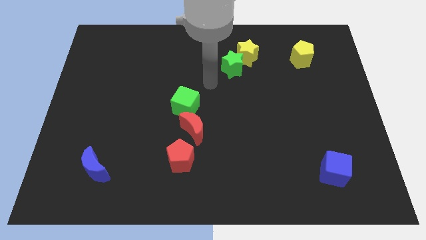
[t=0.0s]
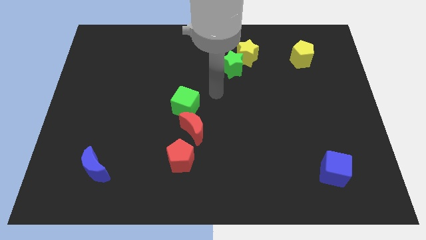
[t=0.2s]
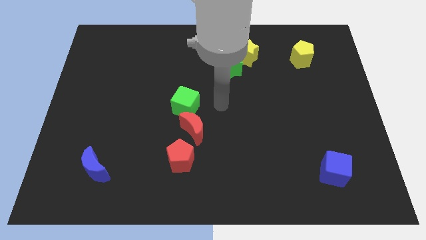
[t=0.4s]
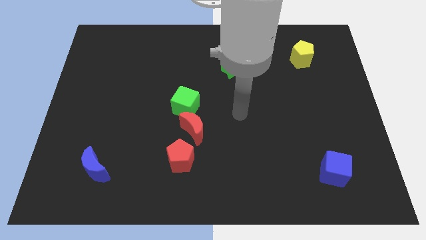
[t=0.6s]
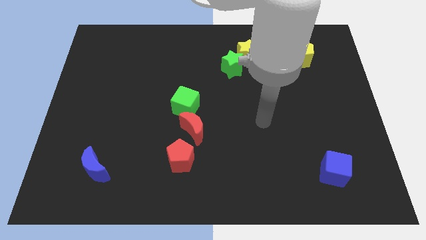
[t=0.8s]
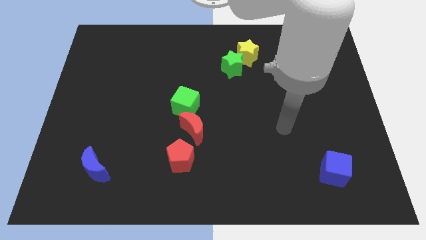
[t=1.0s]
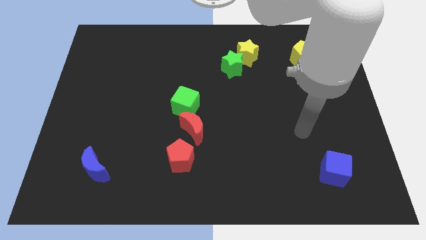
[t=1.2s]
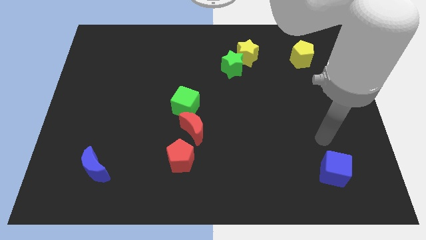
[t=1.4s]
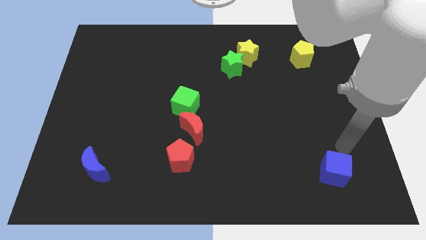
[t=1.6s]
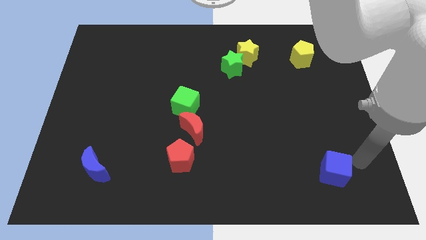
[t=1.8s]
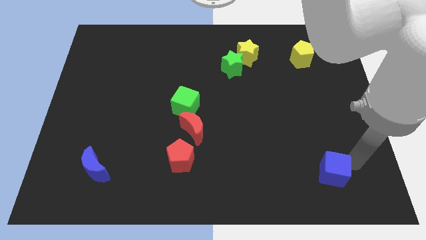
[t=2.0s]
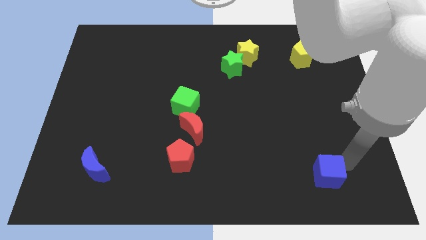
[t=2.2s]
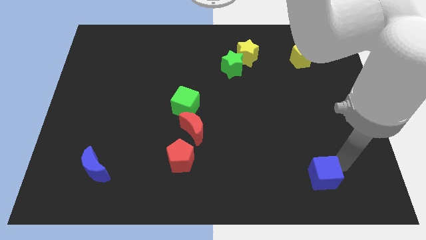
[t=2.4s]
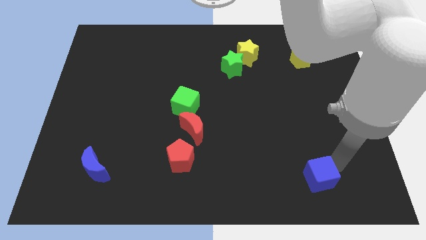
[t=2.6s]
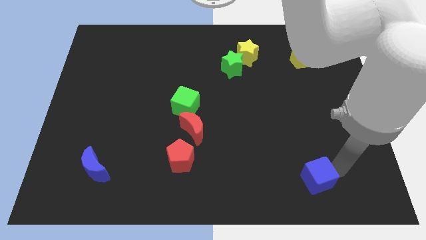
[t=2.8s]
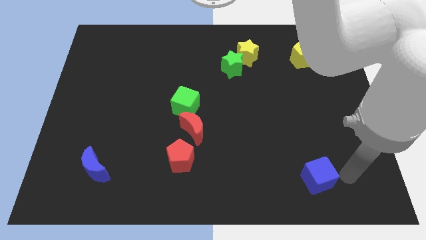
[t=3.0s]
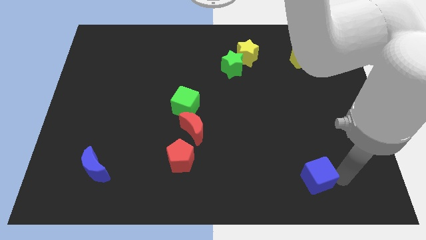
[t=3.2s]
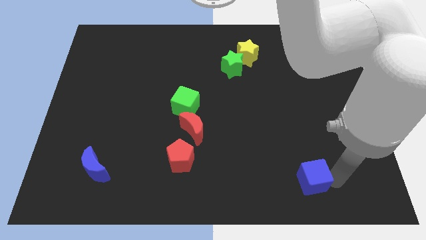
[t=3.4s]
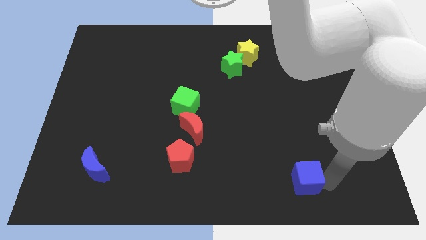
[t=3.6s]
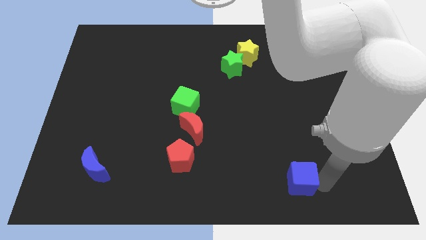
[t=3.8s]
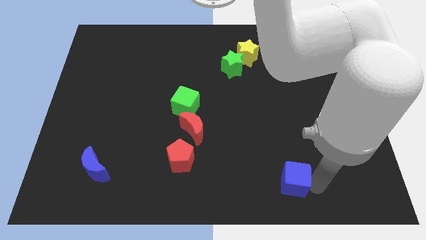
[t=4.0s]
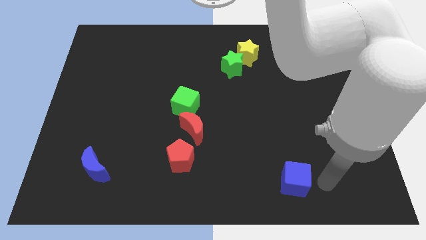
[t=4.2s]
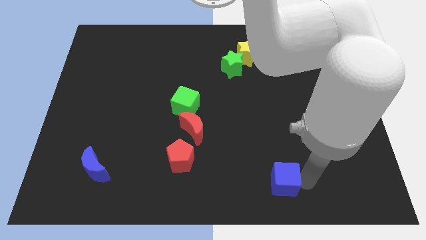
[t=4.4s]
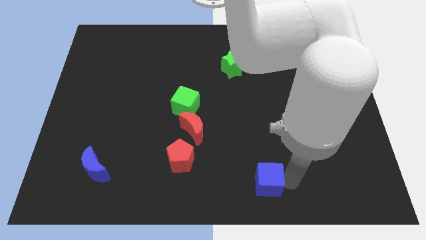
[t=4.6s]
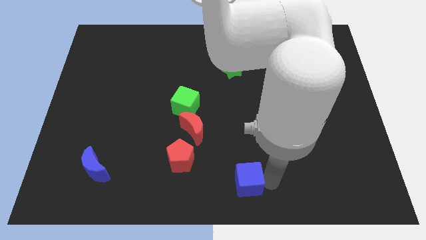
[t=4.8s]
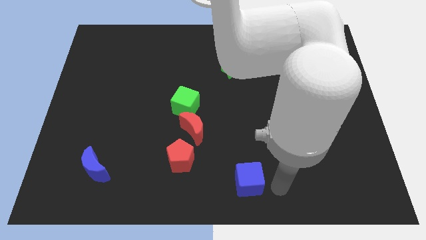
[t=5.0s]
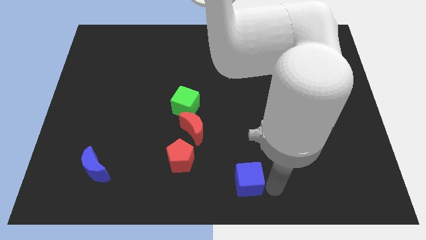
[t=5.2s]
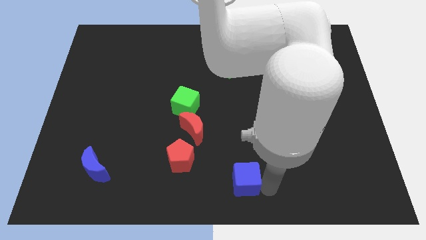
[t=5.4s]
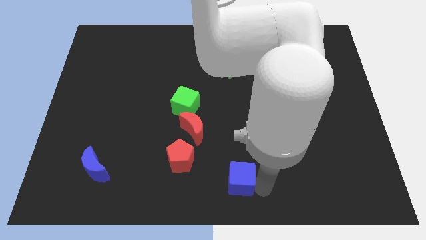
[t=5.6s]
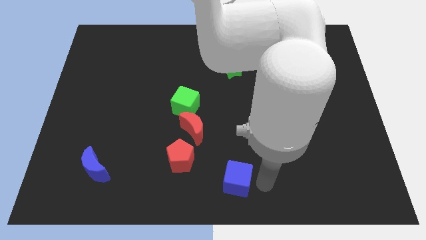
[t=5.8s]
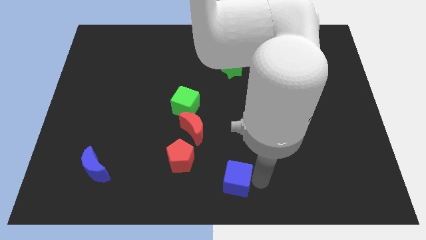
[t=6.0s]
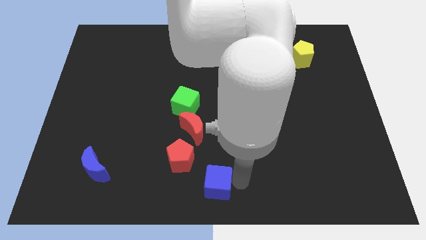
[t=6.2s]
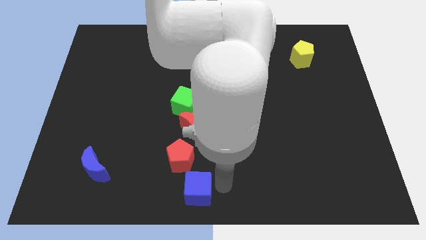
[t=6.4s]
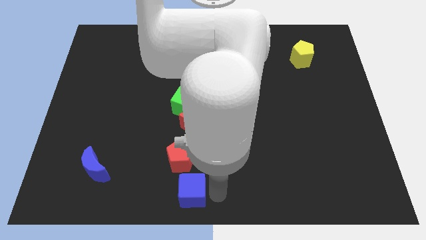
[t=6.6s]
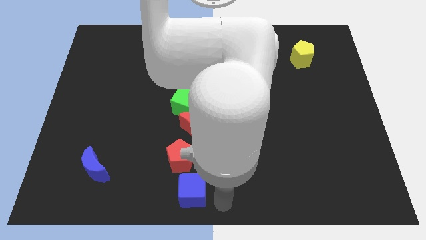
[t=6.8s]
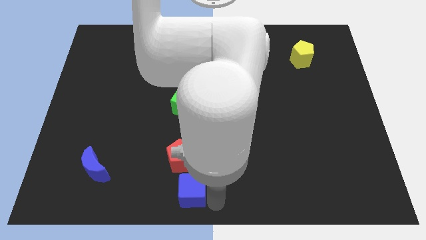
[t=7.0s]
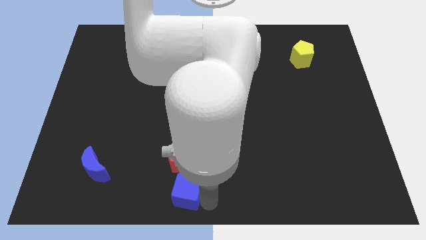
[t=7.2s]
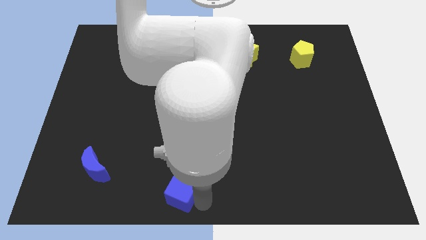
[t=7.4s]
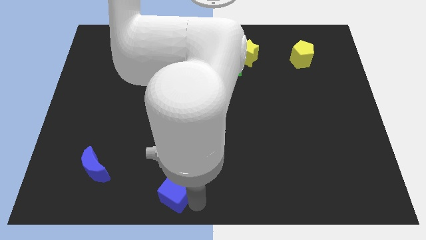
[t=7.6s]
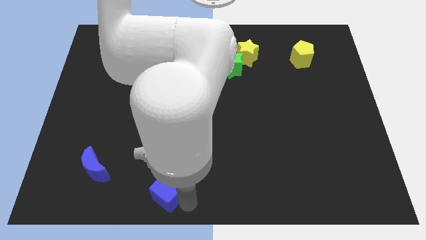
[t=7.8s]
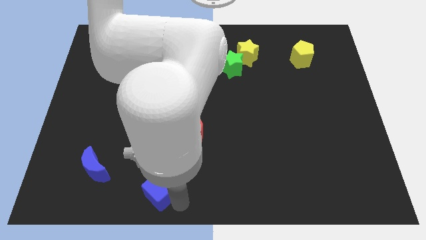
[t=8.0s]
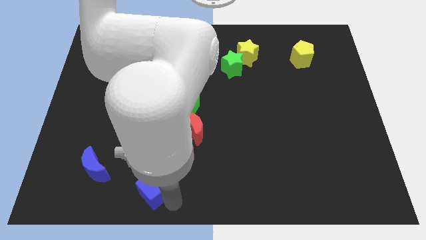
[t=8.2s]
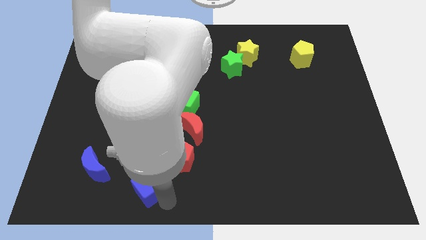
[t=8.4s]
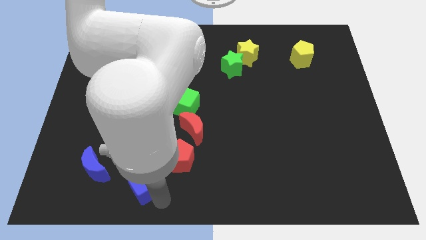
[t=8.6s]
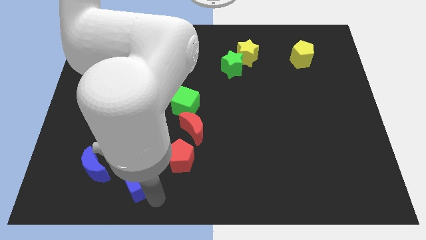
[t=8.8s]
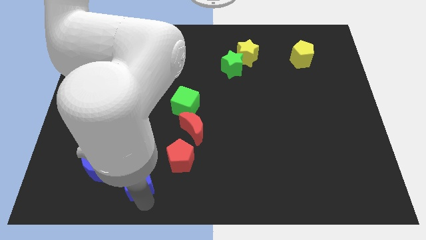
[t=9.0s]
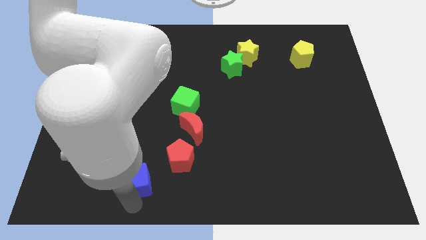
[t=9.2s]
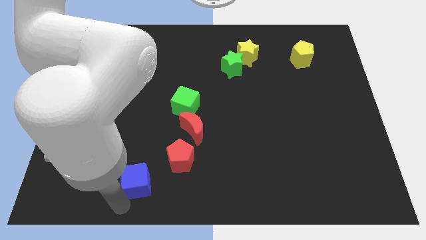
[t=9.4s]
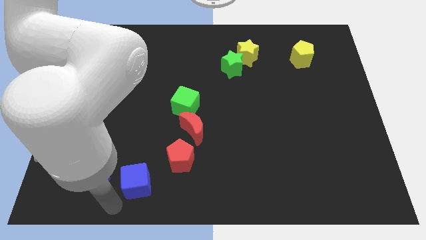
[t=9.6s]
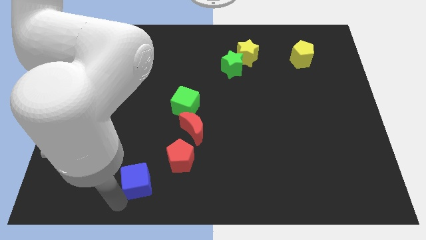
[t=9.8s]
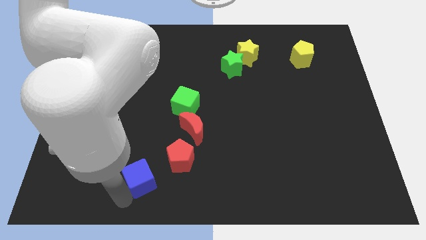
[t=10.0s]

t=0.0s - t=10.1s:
slide the blue cube to the left side of the red pentagon

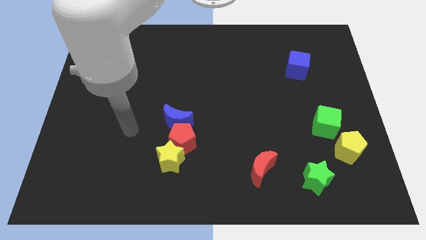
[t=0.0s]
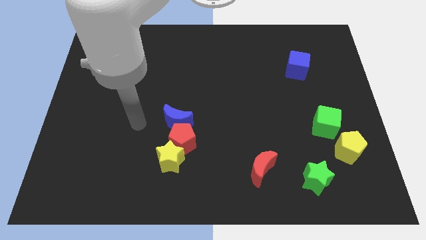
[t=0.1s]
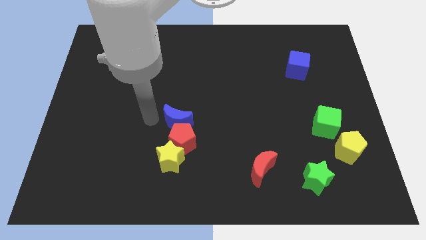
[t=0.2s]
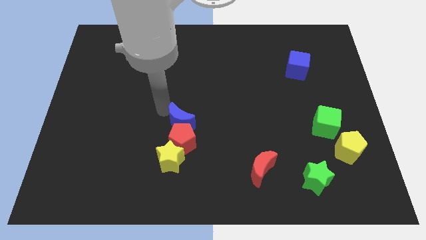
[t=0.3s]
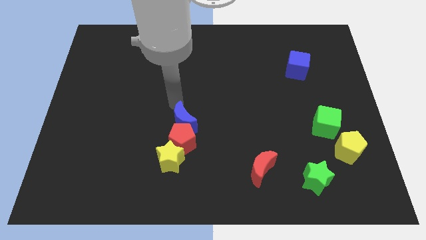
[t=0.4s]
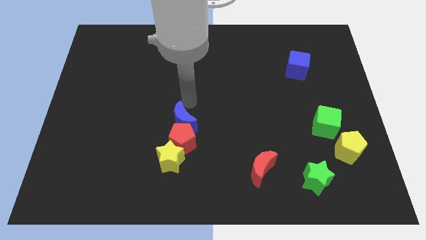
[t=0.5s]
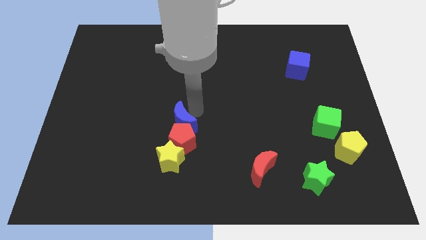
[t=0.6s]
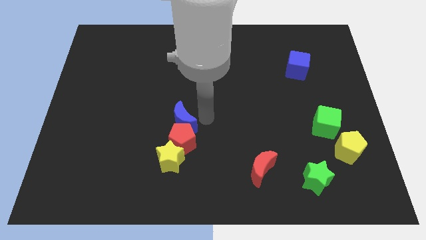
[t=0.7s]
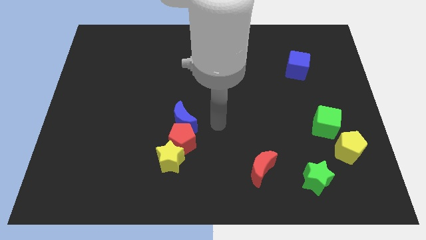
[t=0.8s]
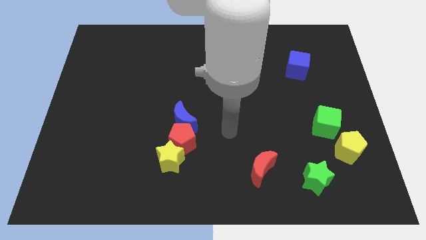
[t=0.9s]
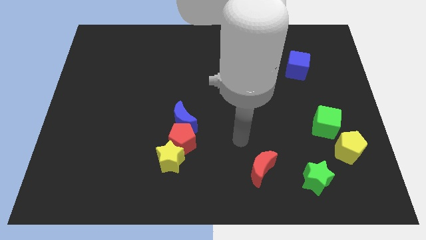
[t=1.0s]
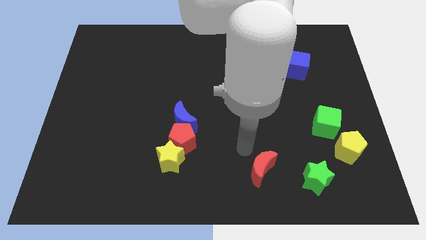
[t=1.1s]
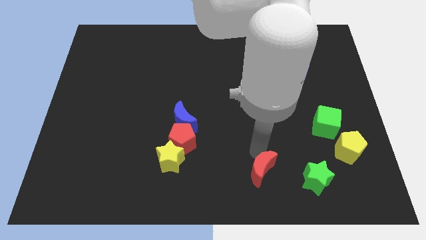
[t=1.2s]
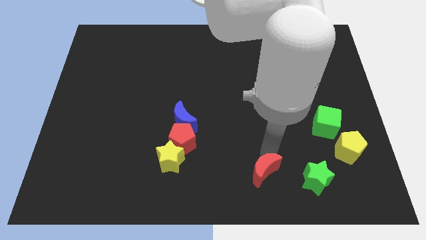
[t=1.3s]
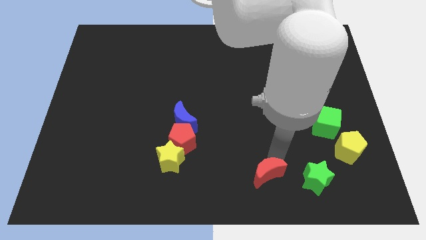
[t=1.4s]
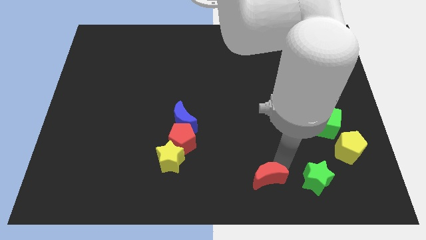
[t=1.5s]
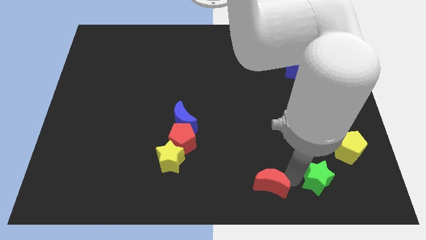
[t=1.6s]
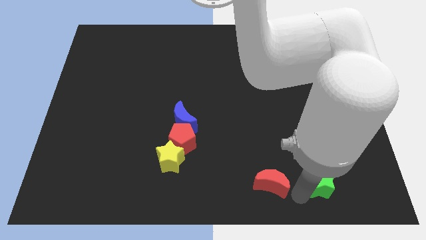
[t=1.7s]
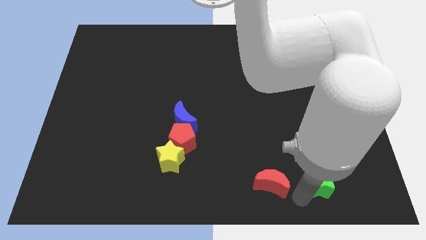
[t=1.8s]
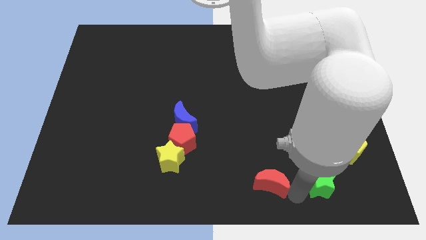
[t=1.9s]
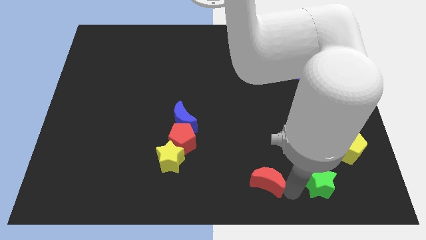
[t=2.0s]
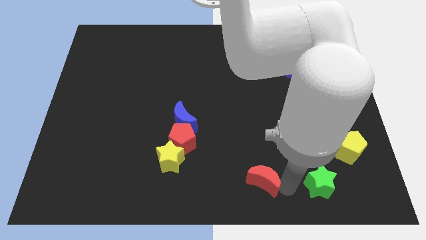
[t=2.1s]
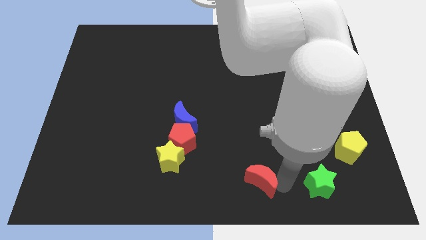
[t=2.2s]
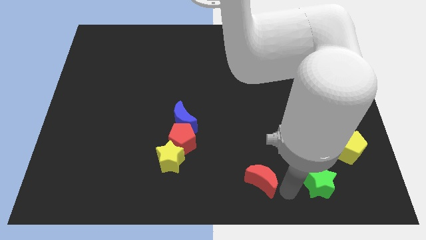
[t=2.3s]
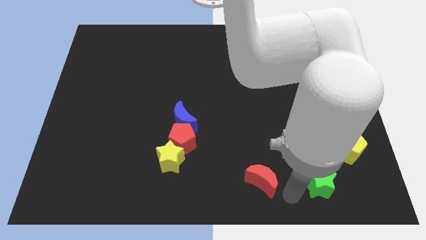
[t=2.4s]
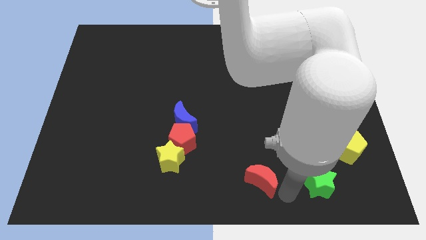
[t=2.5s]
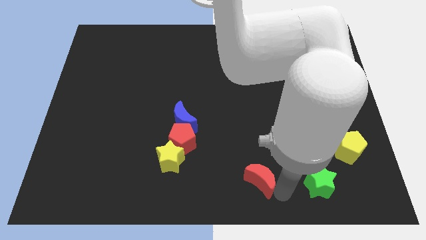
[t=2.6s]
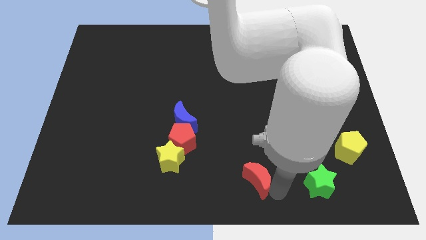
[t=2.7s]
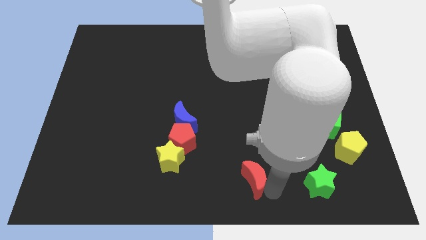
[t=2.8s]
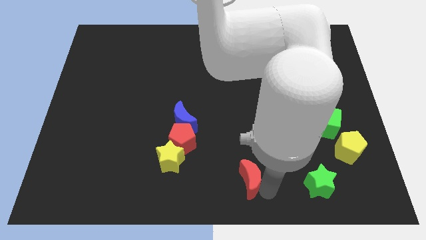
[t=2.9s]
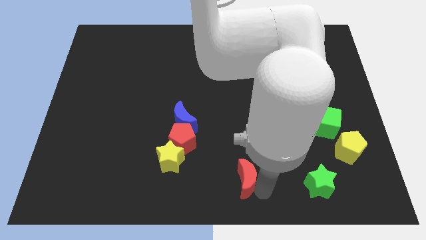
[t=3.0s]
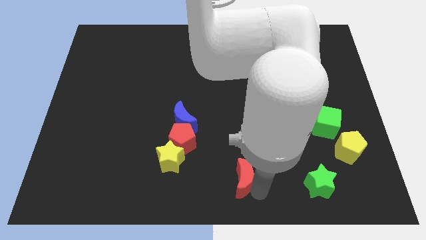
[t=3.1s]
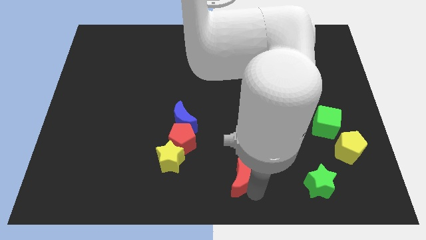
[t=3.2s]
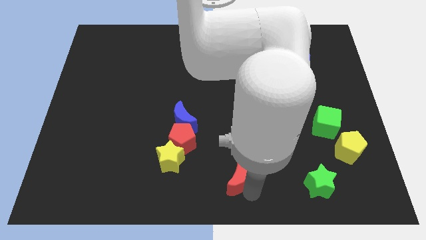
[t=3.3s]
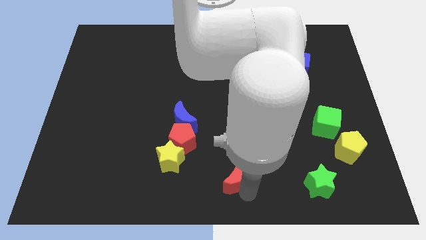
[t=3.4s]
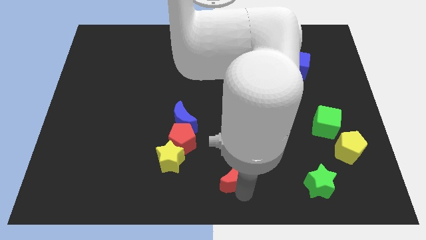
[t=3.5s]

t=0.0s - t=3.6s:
push the red moon just right of the yellow star
